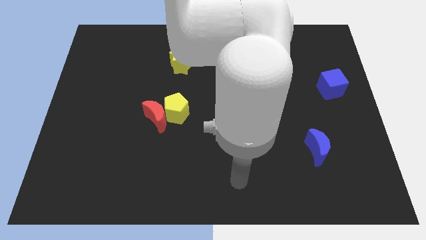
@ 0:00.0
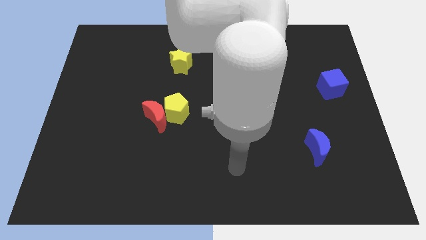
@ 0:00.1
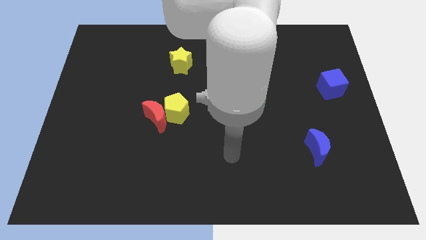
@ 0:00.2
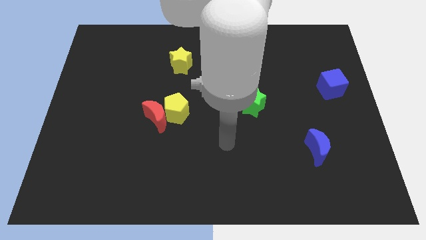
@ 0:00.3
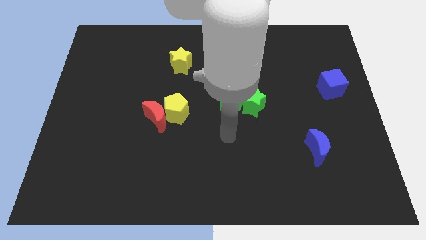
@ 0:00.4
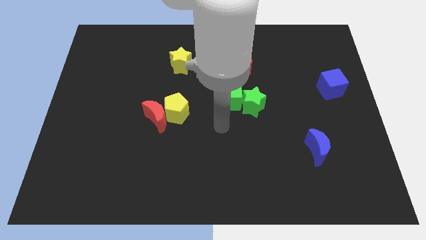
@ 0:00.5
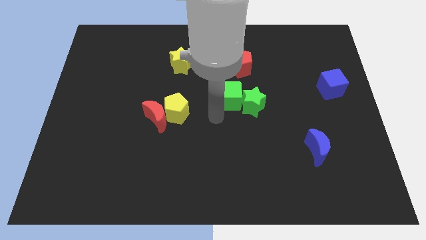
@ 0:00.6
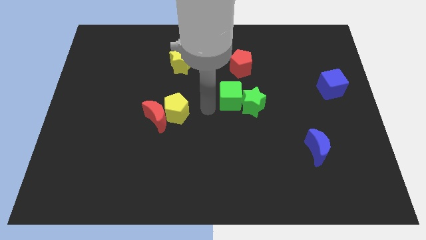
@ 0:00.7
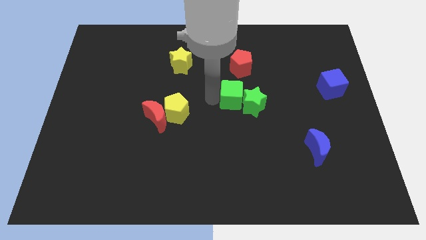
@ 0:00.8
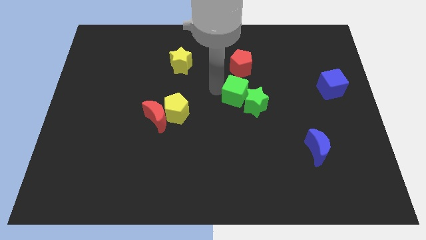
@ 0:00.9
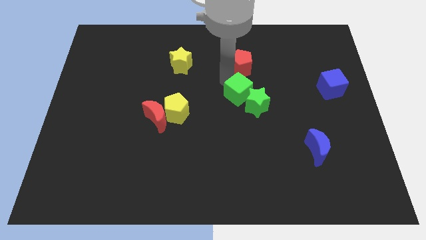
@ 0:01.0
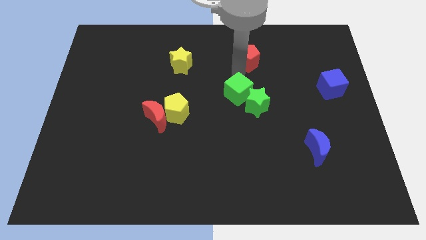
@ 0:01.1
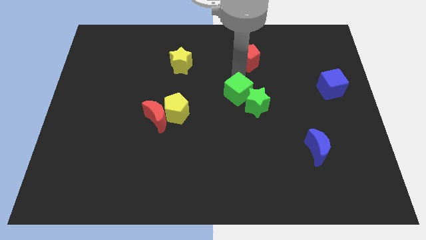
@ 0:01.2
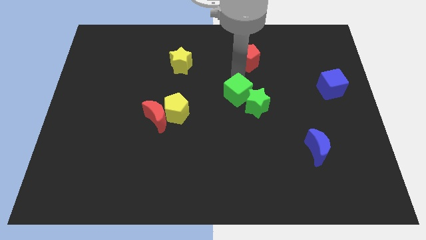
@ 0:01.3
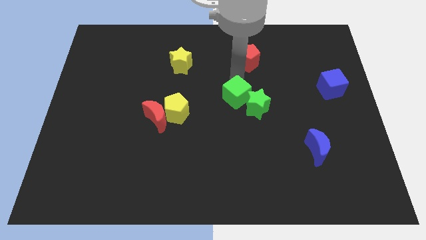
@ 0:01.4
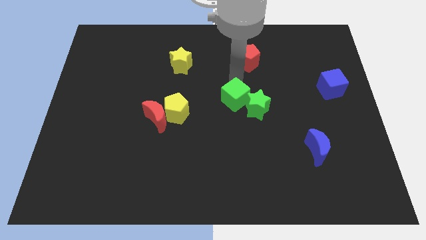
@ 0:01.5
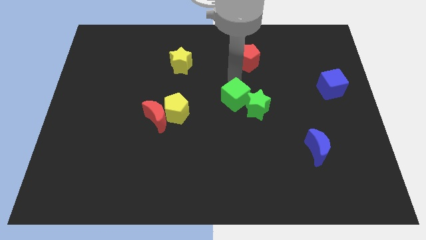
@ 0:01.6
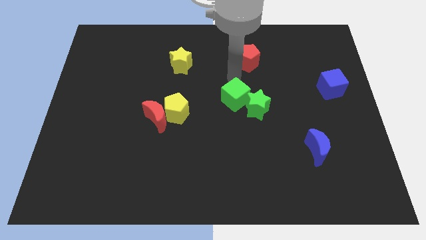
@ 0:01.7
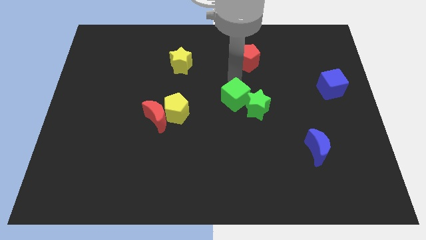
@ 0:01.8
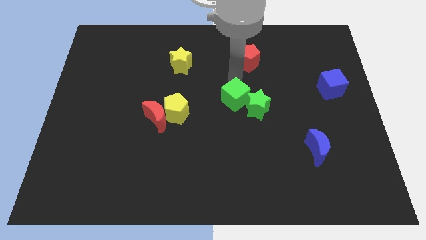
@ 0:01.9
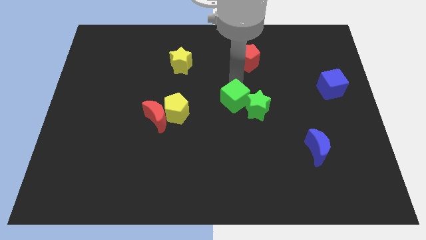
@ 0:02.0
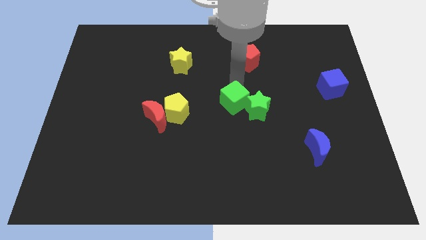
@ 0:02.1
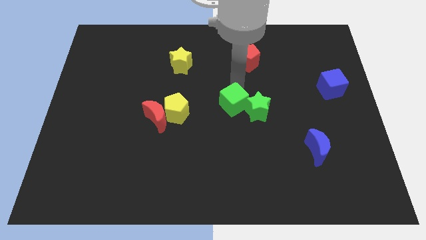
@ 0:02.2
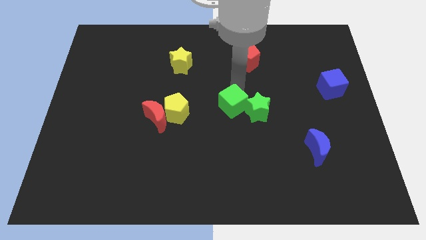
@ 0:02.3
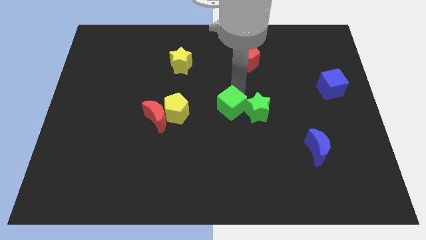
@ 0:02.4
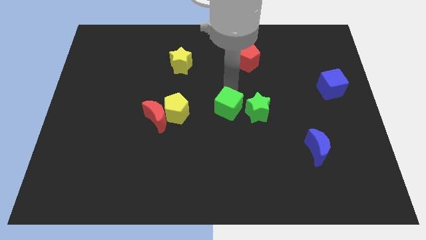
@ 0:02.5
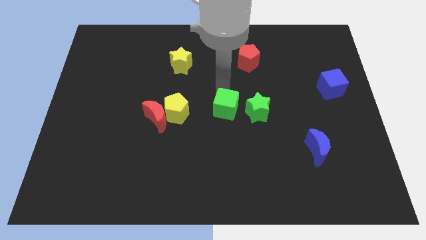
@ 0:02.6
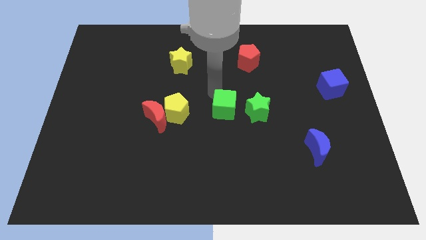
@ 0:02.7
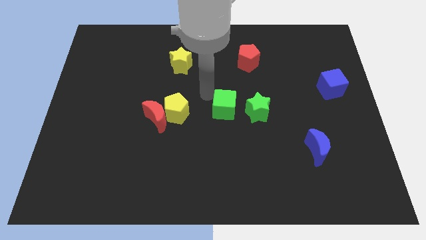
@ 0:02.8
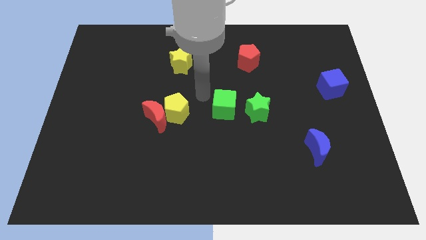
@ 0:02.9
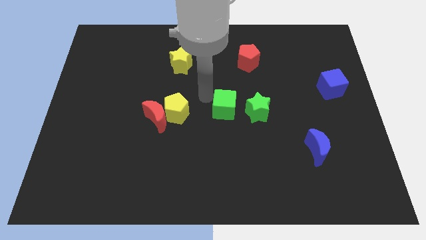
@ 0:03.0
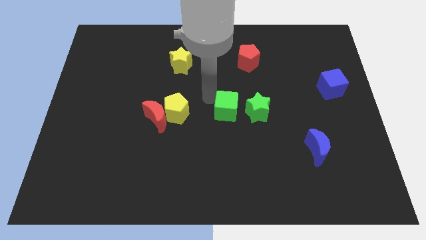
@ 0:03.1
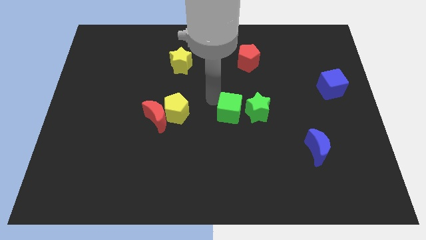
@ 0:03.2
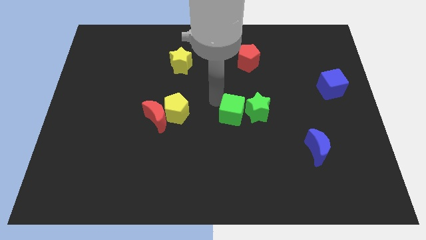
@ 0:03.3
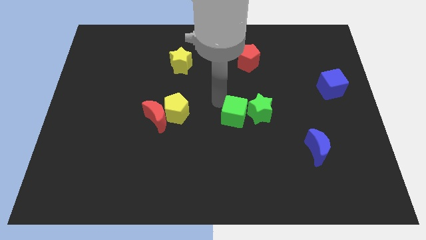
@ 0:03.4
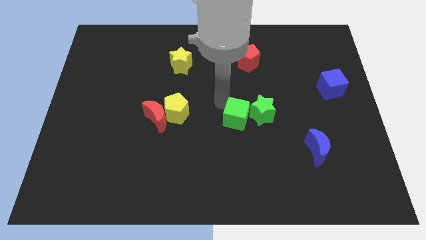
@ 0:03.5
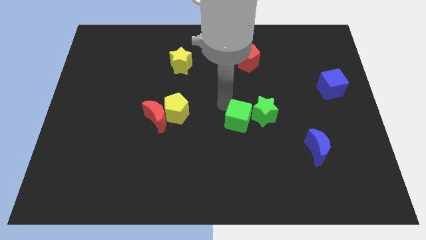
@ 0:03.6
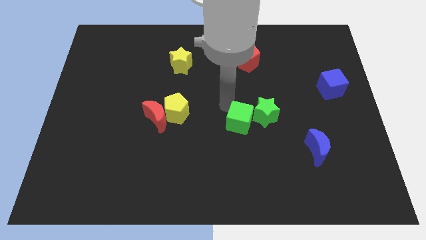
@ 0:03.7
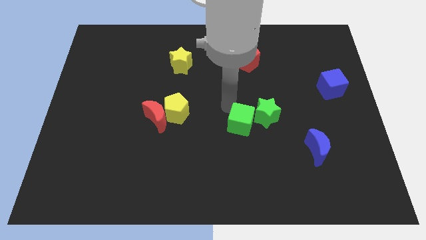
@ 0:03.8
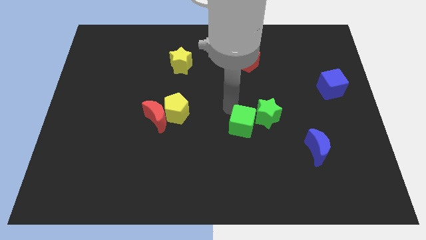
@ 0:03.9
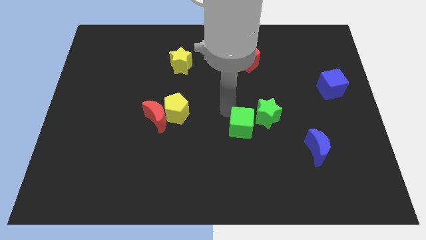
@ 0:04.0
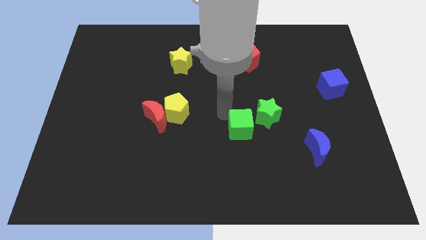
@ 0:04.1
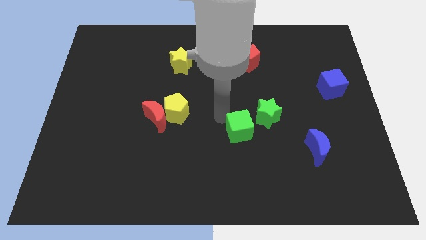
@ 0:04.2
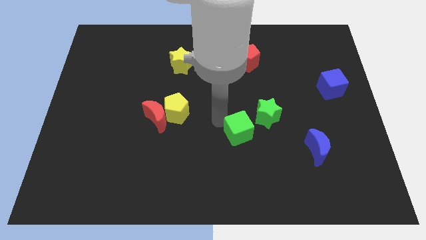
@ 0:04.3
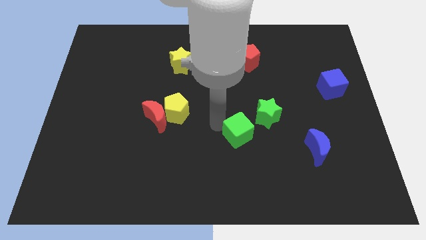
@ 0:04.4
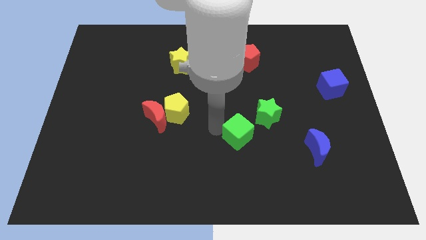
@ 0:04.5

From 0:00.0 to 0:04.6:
slightly move the green cube diagonally downwards and to the right

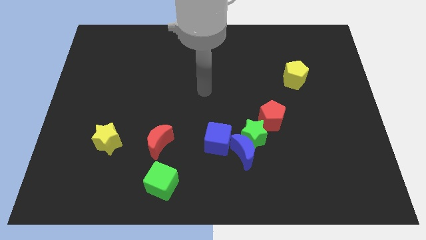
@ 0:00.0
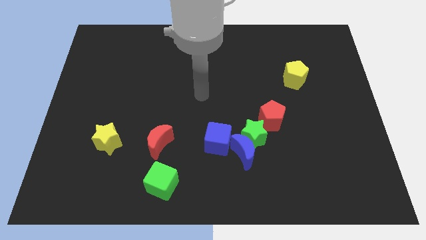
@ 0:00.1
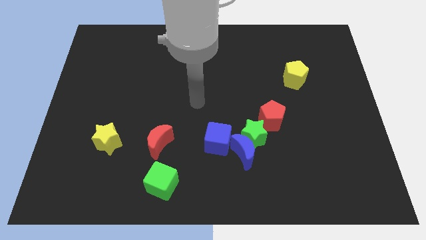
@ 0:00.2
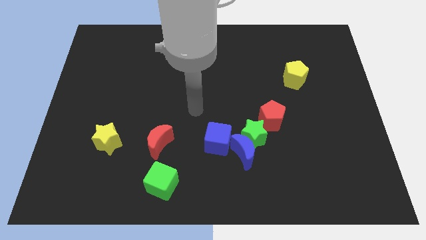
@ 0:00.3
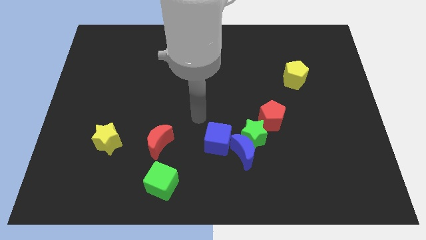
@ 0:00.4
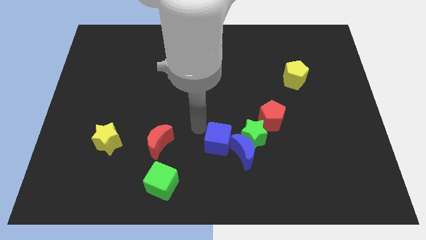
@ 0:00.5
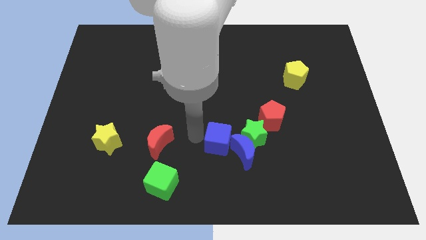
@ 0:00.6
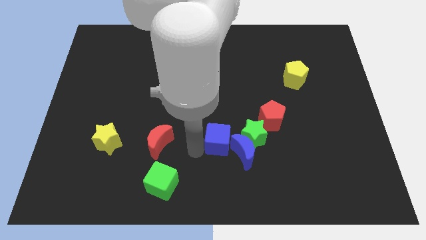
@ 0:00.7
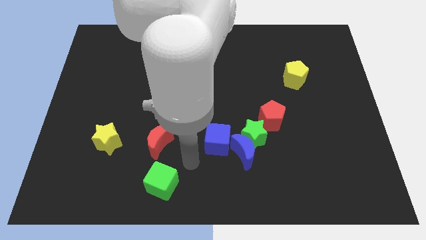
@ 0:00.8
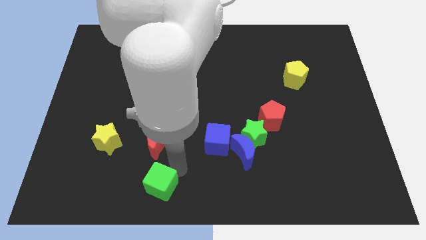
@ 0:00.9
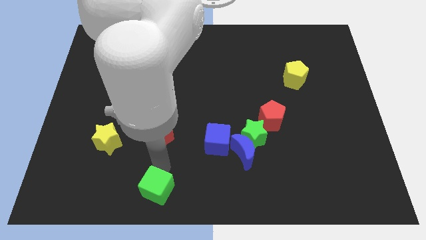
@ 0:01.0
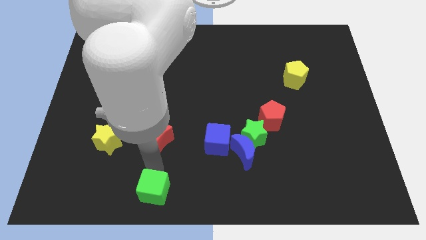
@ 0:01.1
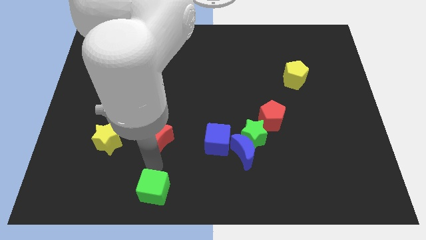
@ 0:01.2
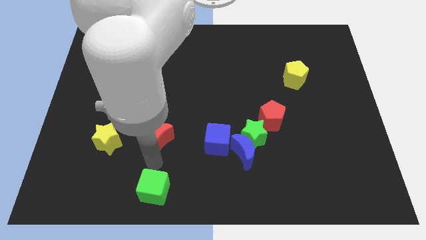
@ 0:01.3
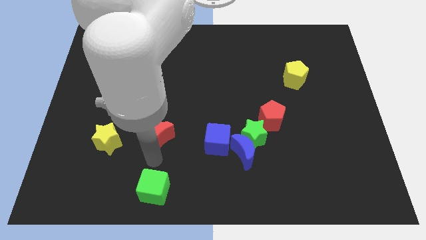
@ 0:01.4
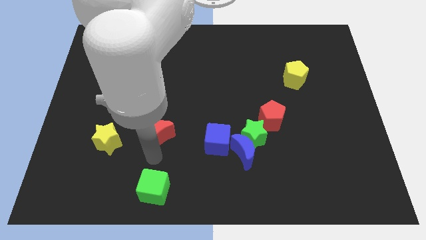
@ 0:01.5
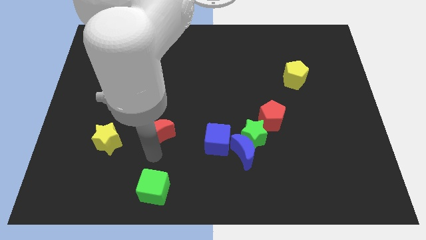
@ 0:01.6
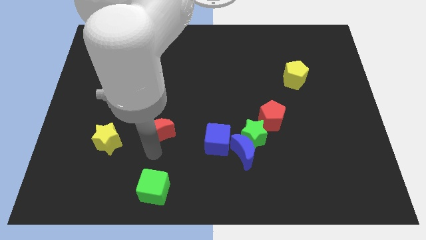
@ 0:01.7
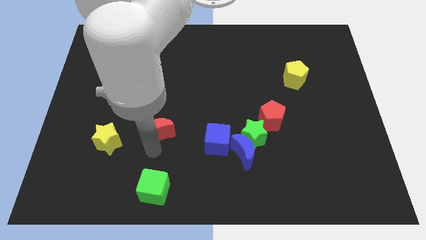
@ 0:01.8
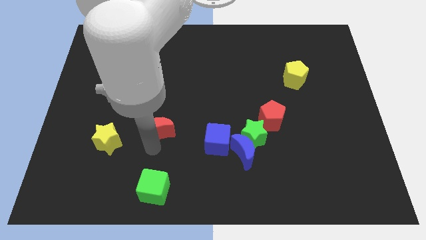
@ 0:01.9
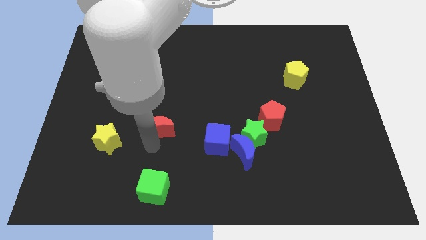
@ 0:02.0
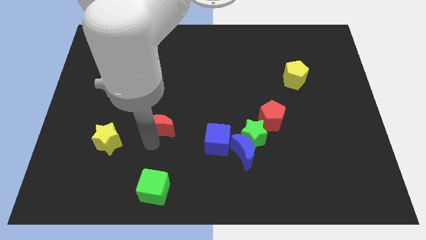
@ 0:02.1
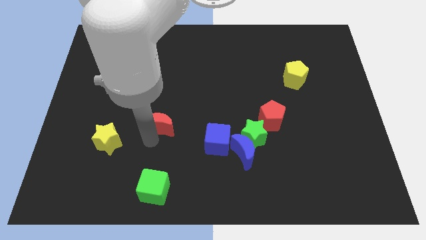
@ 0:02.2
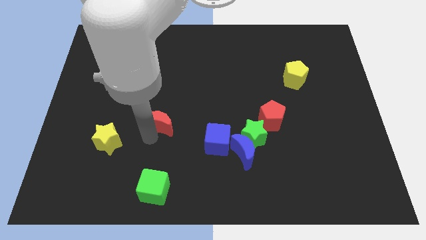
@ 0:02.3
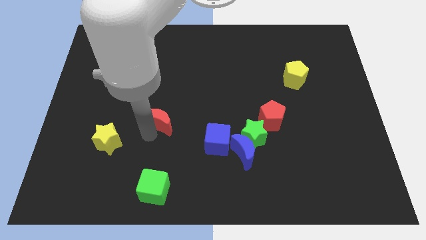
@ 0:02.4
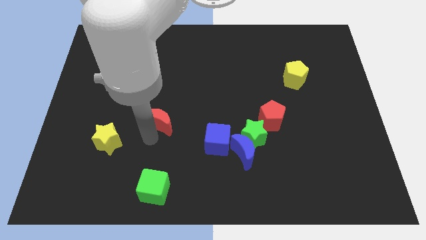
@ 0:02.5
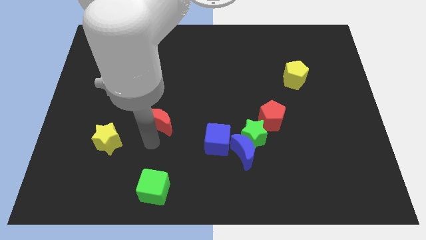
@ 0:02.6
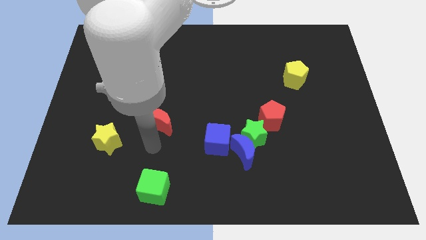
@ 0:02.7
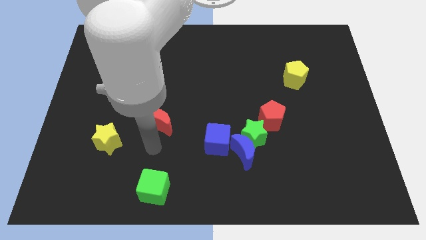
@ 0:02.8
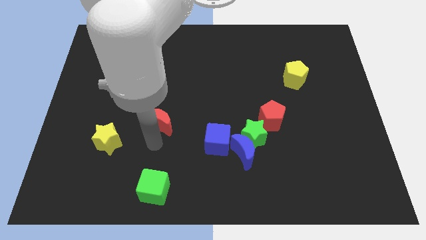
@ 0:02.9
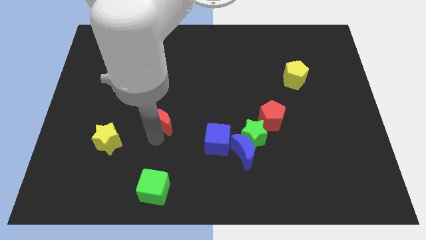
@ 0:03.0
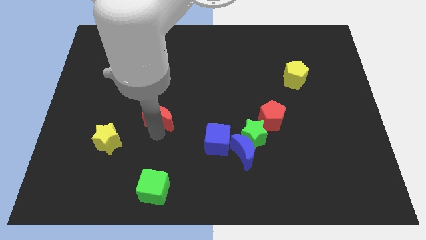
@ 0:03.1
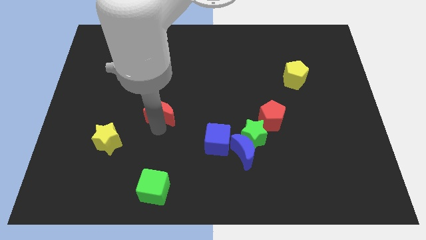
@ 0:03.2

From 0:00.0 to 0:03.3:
slightly slide the red moon up

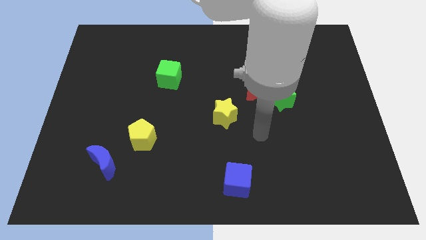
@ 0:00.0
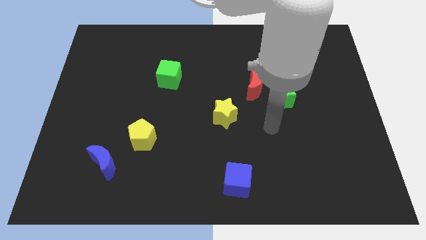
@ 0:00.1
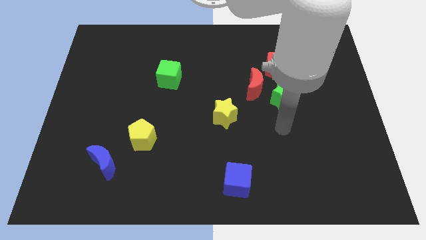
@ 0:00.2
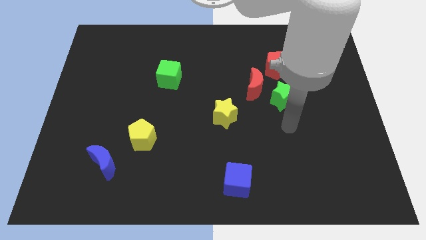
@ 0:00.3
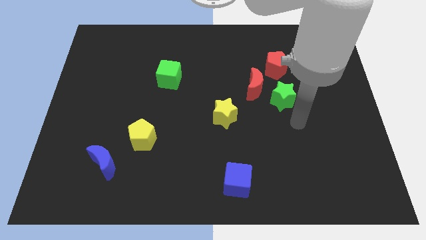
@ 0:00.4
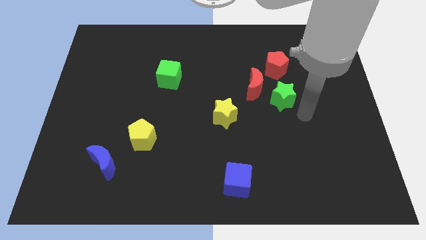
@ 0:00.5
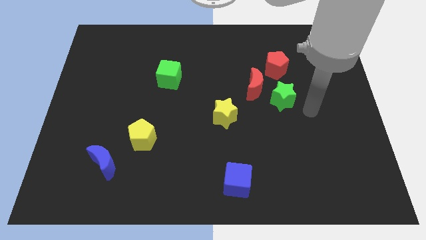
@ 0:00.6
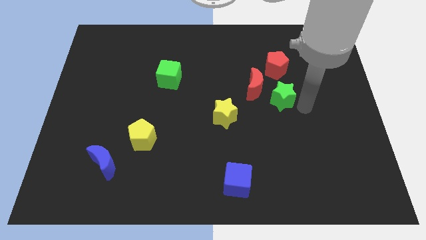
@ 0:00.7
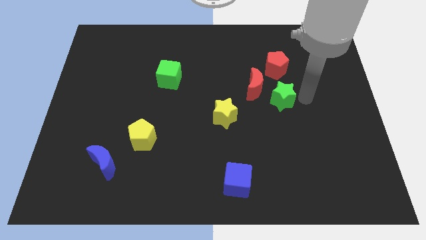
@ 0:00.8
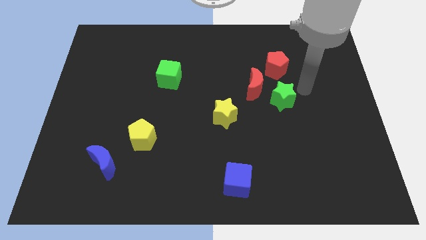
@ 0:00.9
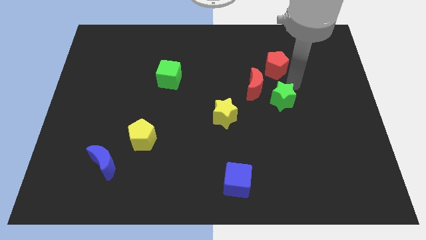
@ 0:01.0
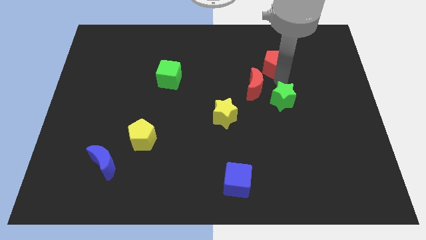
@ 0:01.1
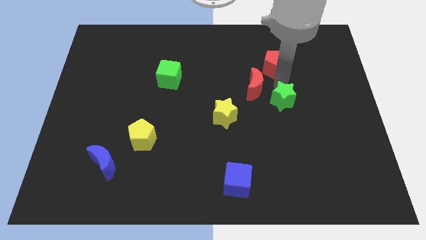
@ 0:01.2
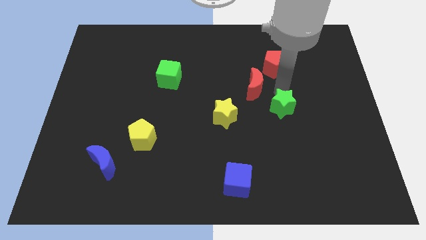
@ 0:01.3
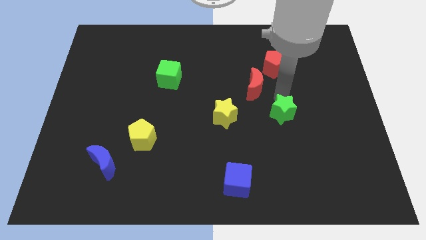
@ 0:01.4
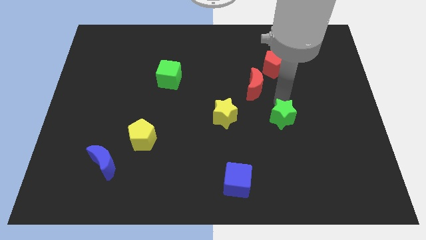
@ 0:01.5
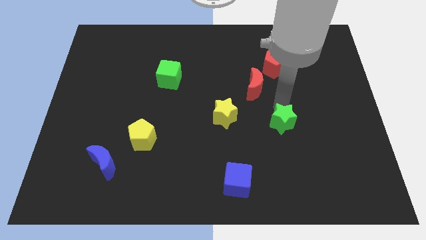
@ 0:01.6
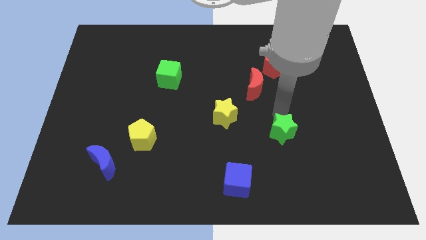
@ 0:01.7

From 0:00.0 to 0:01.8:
push the green star slightly down
